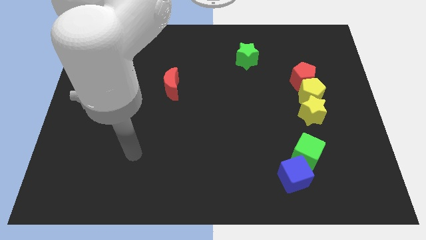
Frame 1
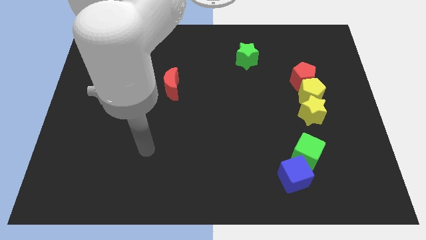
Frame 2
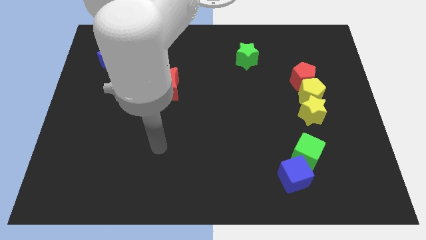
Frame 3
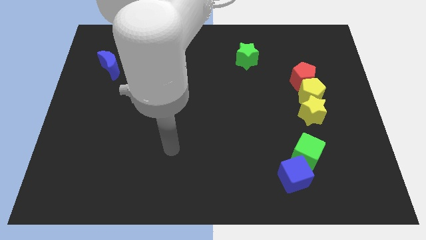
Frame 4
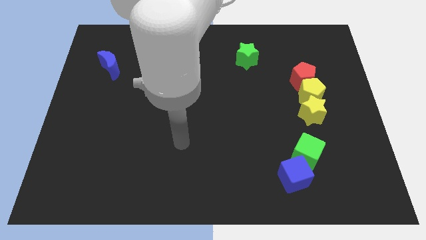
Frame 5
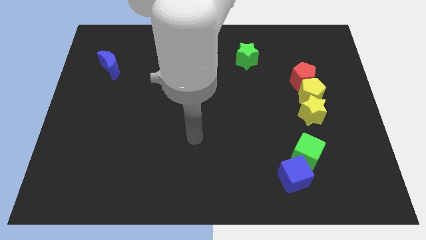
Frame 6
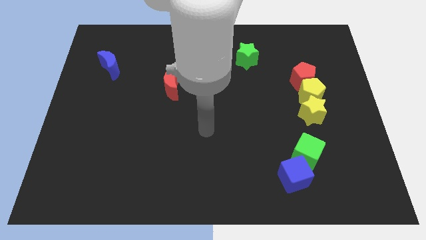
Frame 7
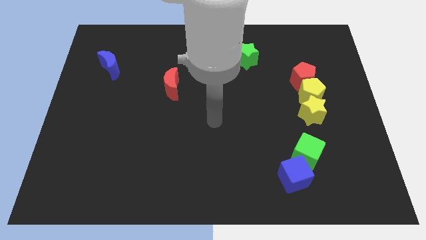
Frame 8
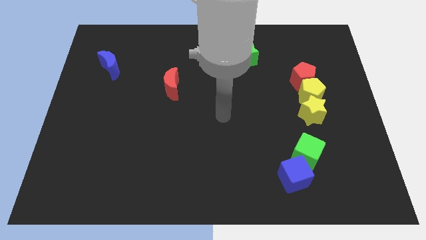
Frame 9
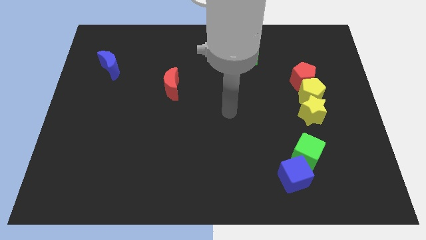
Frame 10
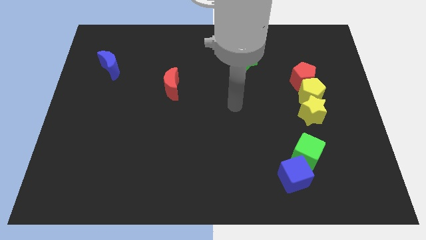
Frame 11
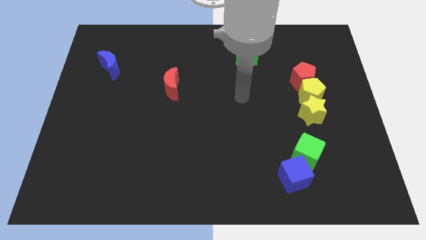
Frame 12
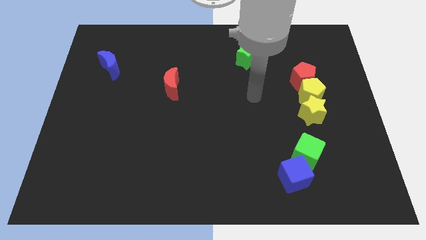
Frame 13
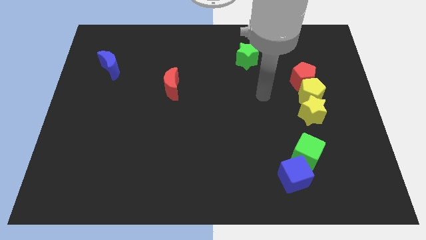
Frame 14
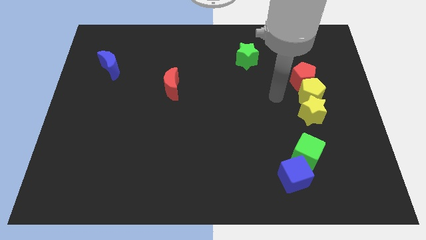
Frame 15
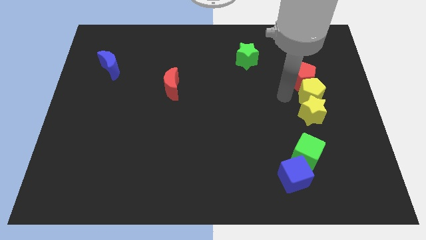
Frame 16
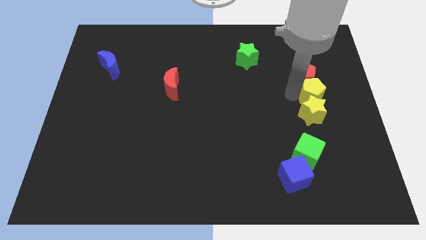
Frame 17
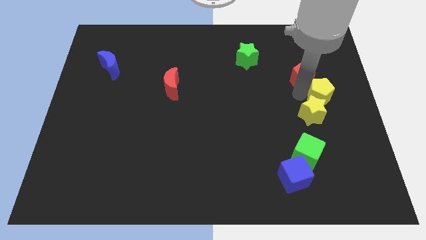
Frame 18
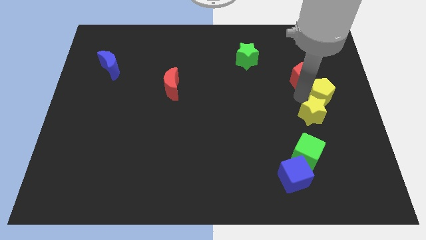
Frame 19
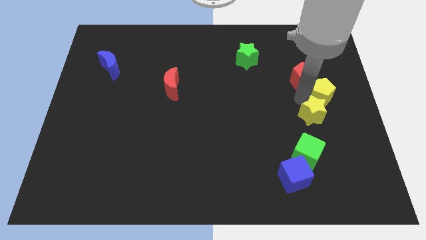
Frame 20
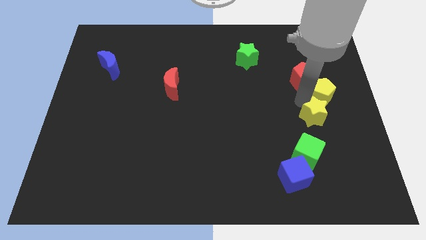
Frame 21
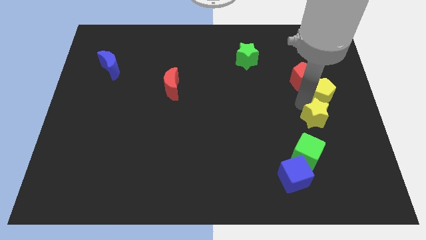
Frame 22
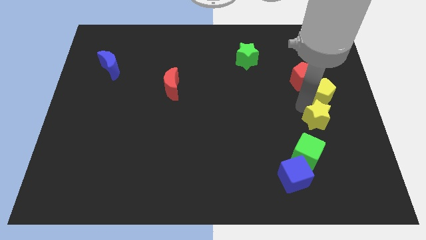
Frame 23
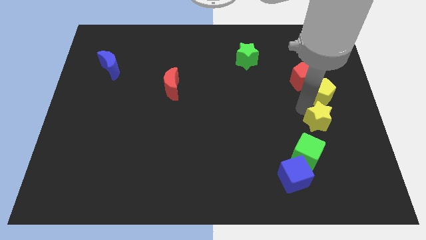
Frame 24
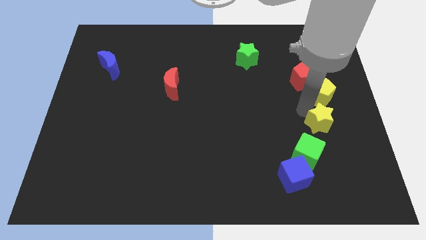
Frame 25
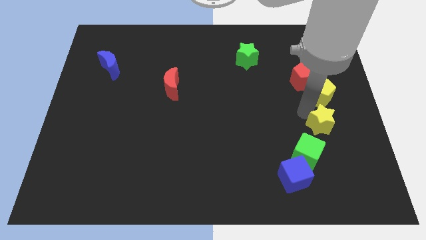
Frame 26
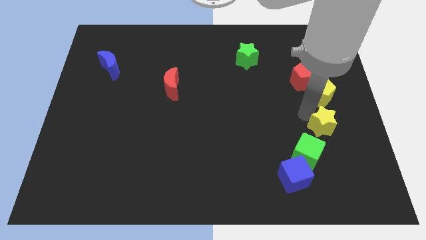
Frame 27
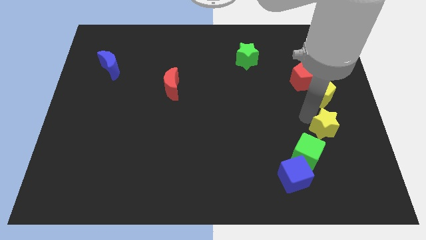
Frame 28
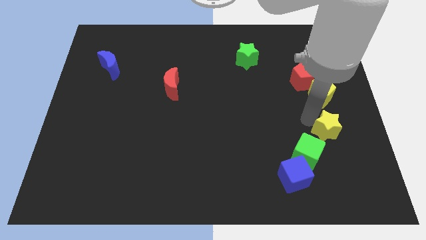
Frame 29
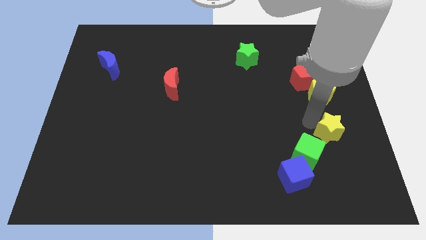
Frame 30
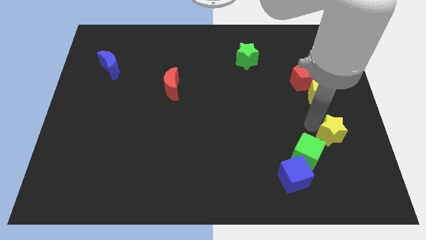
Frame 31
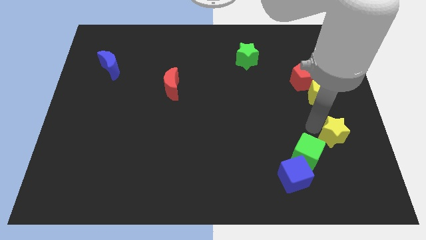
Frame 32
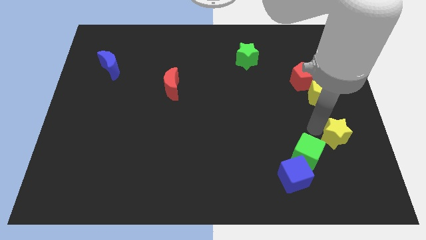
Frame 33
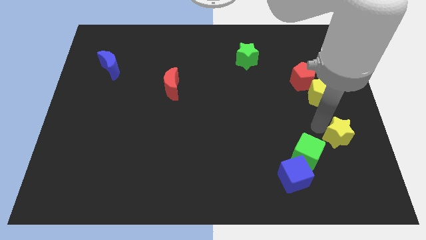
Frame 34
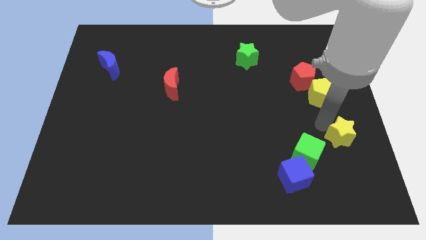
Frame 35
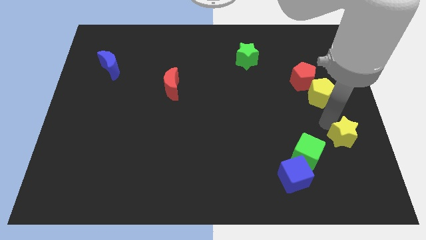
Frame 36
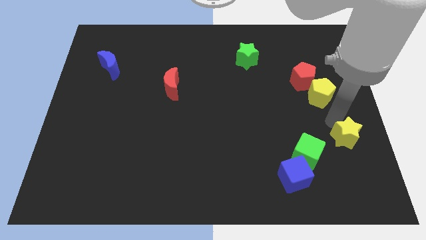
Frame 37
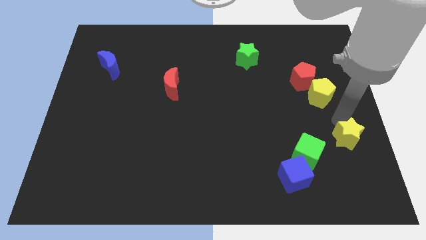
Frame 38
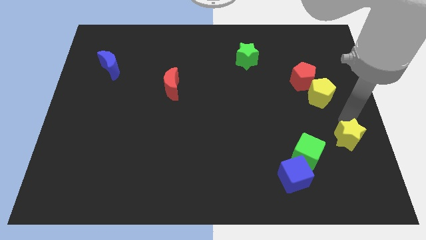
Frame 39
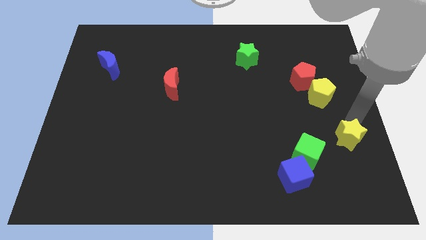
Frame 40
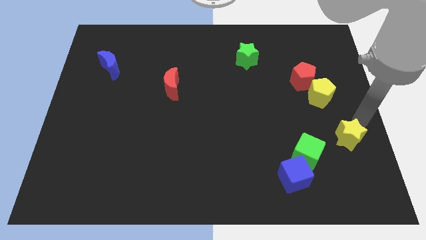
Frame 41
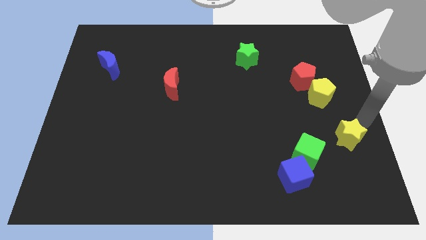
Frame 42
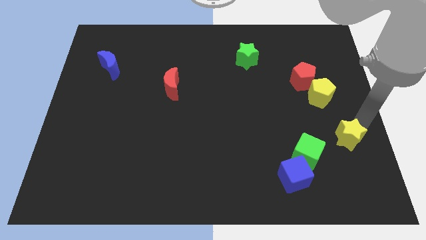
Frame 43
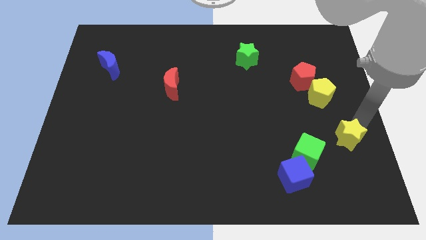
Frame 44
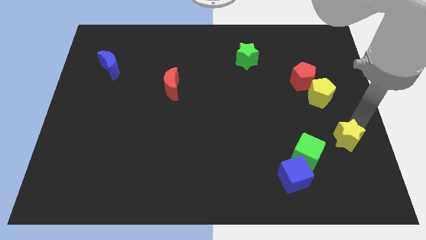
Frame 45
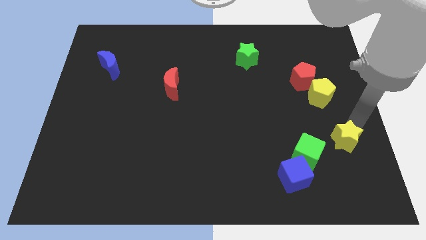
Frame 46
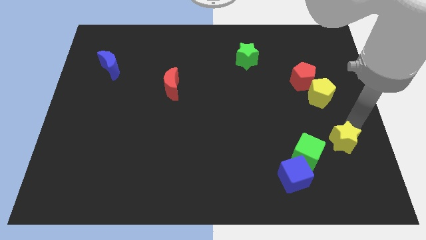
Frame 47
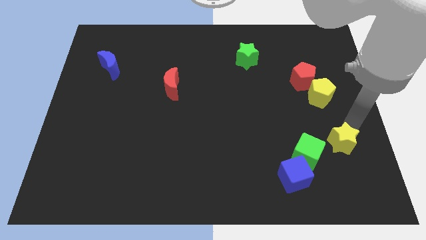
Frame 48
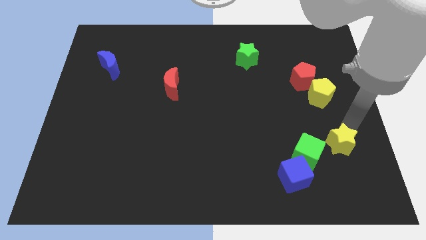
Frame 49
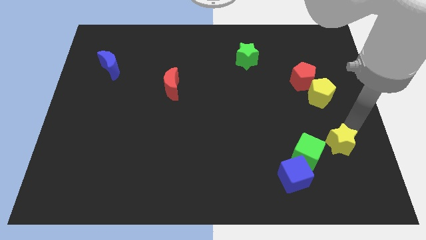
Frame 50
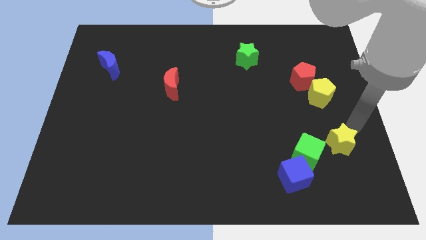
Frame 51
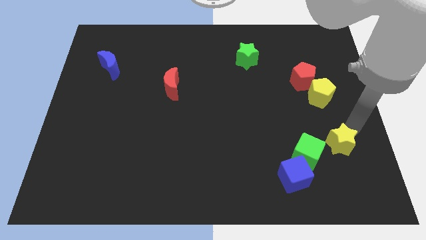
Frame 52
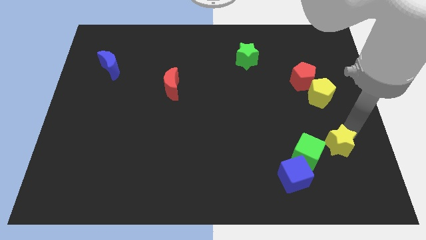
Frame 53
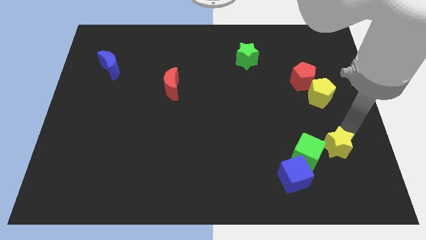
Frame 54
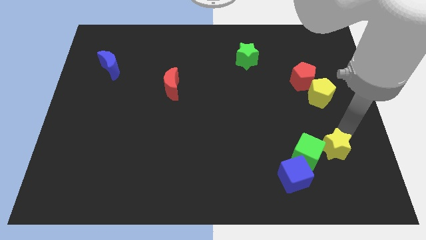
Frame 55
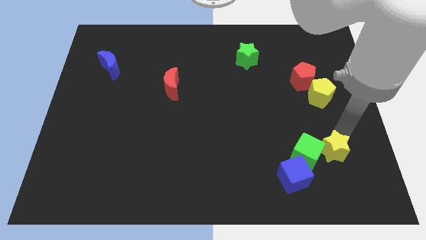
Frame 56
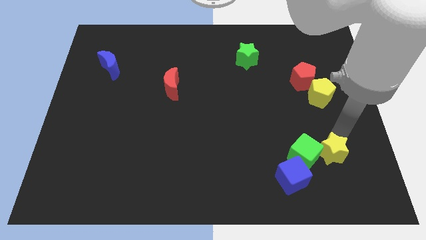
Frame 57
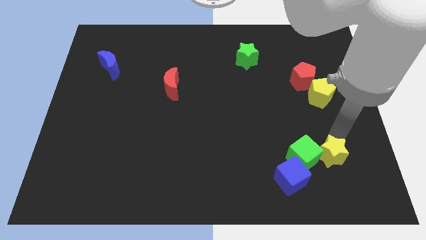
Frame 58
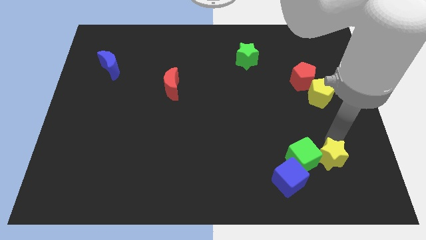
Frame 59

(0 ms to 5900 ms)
move the yellow star to the right of the blue cube

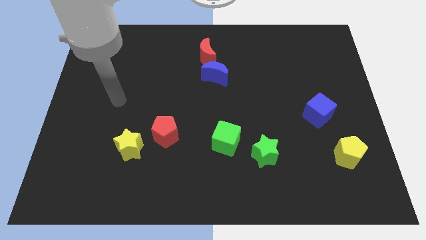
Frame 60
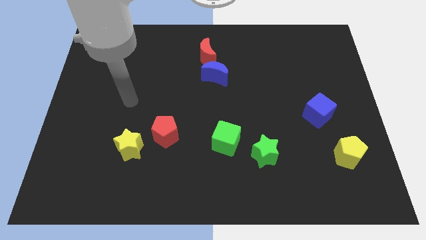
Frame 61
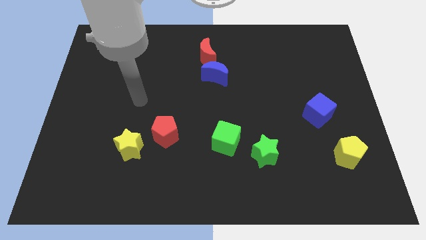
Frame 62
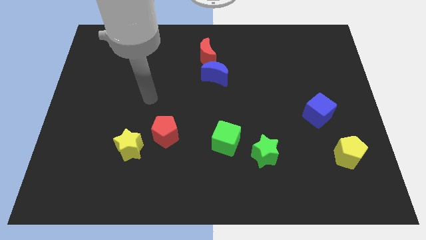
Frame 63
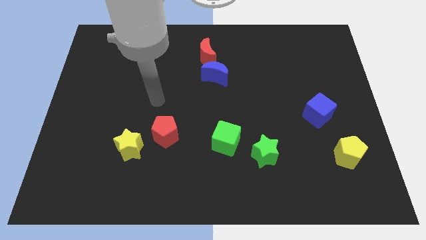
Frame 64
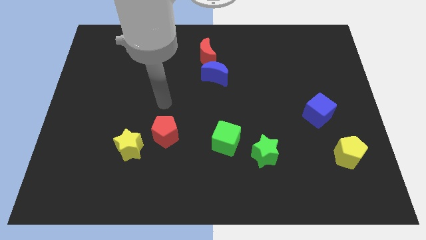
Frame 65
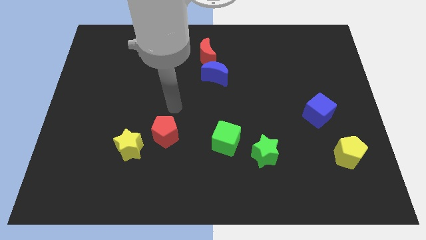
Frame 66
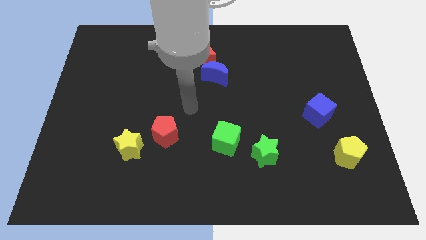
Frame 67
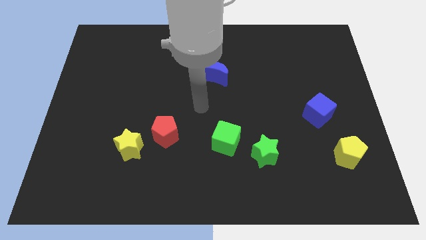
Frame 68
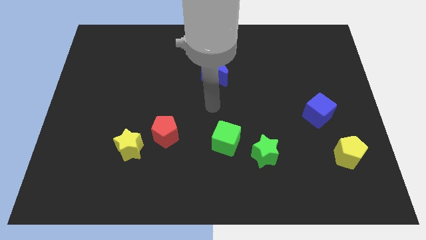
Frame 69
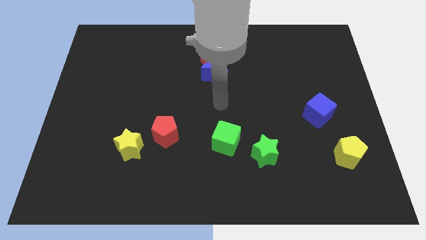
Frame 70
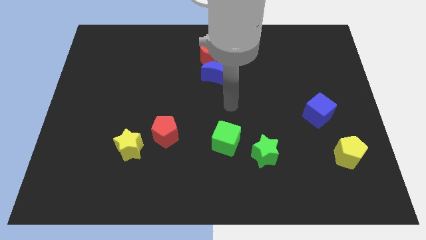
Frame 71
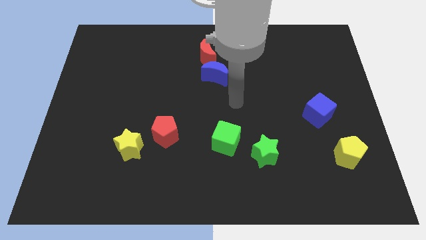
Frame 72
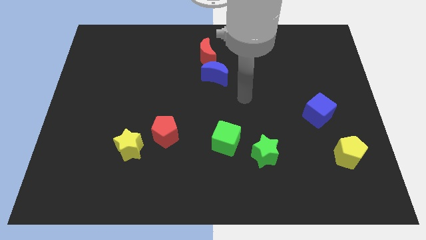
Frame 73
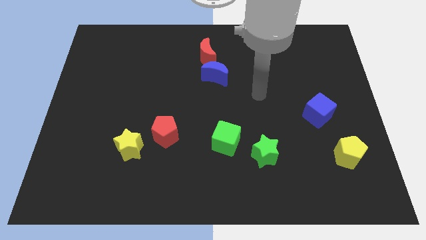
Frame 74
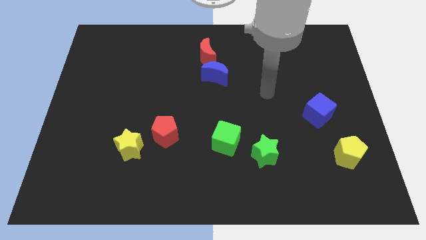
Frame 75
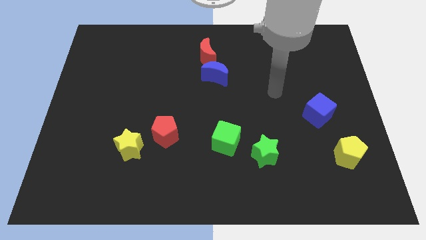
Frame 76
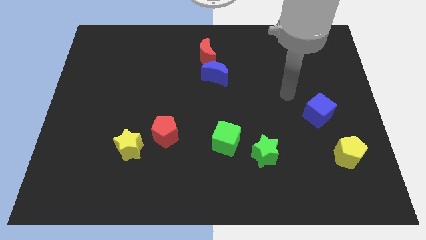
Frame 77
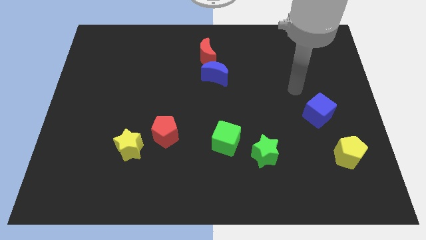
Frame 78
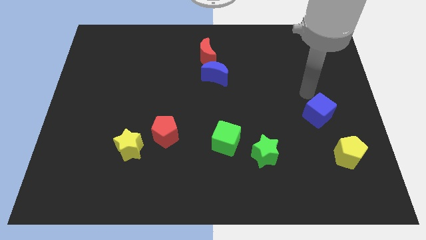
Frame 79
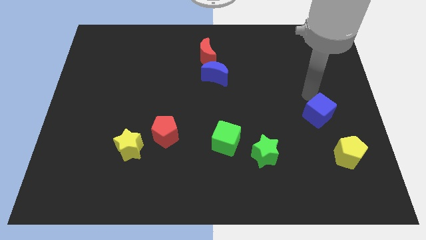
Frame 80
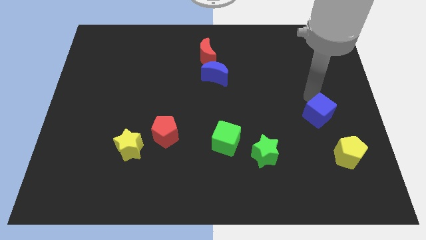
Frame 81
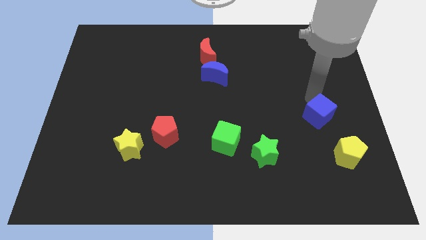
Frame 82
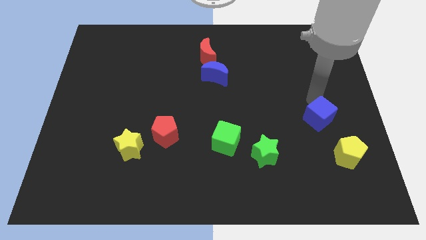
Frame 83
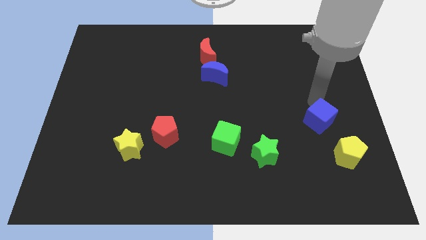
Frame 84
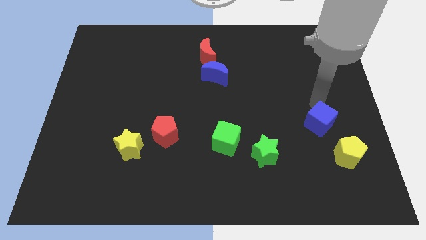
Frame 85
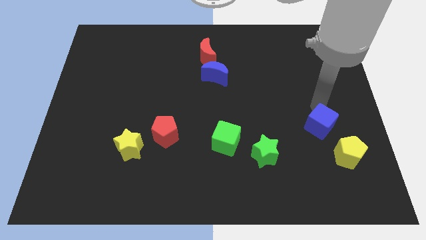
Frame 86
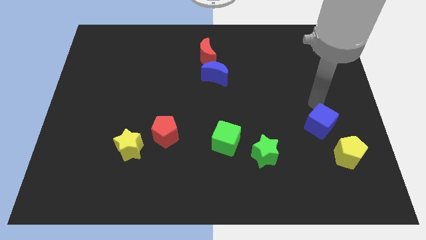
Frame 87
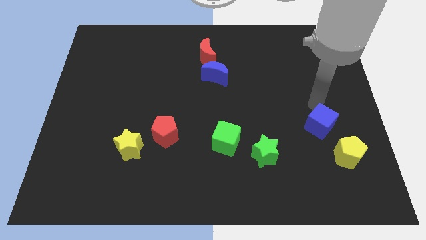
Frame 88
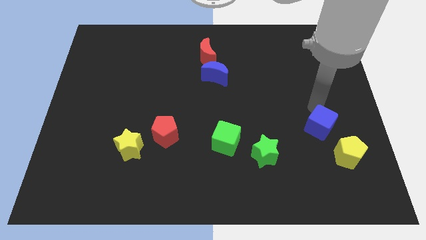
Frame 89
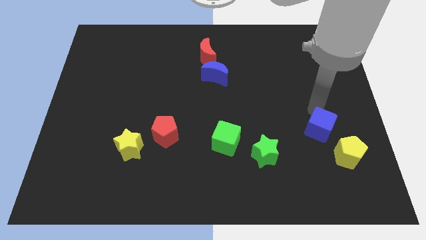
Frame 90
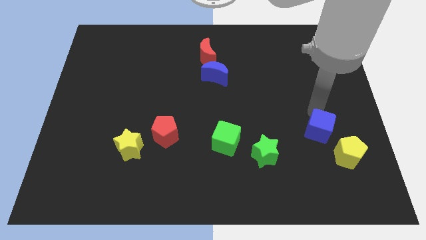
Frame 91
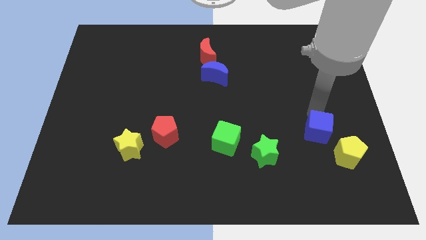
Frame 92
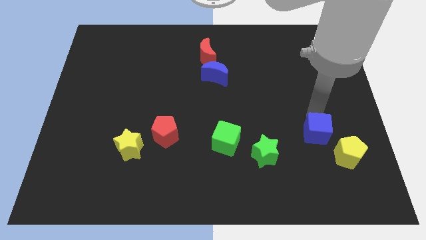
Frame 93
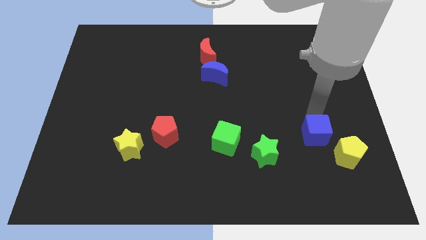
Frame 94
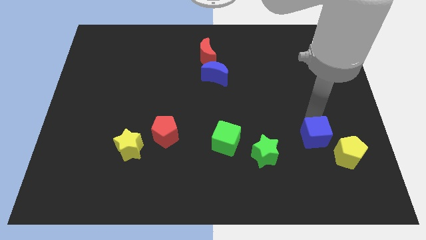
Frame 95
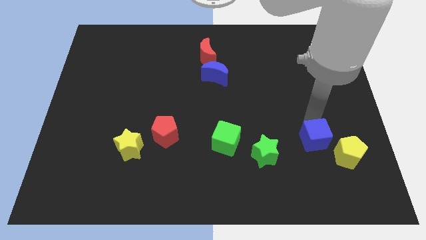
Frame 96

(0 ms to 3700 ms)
move the blue cube to the left side of the yellow pentagon
